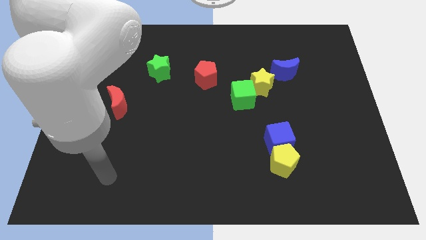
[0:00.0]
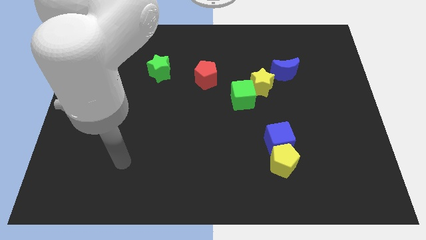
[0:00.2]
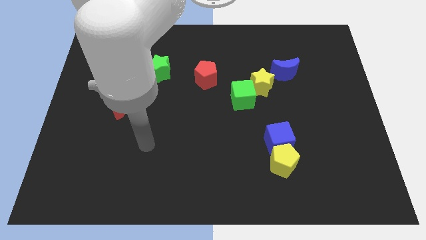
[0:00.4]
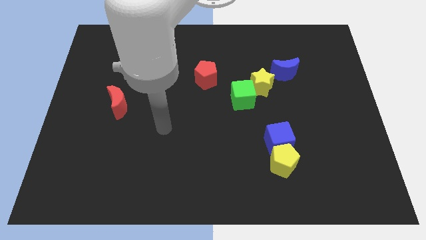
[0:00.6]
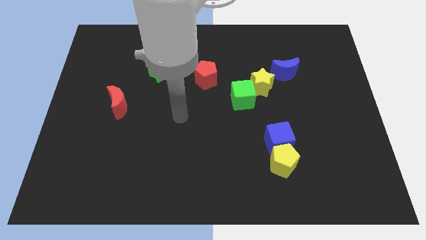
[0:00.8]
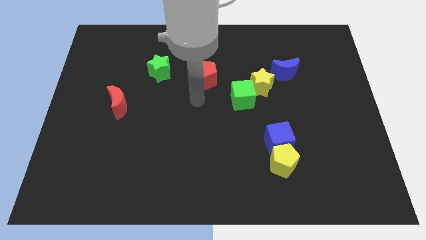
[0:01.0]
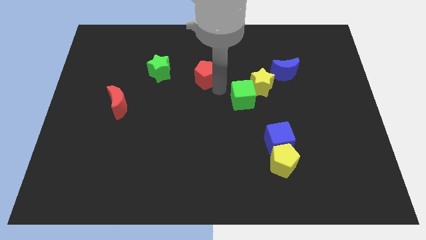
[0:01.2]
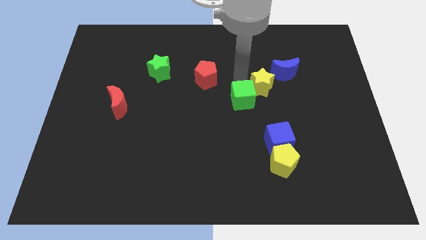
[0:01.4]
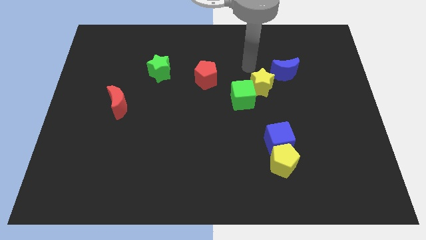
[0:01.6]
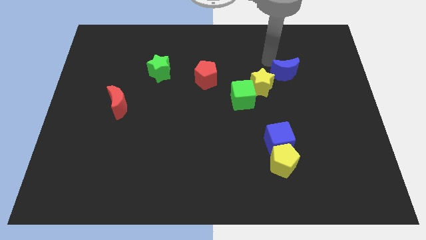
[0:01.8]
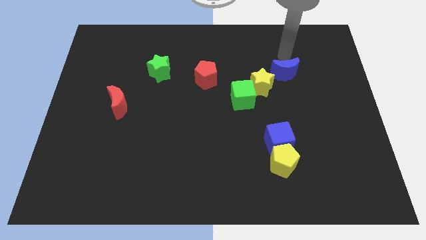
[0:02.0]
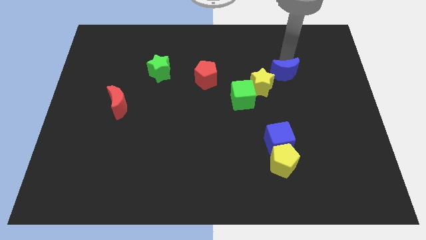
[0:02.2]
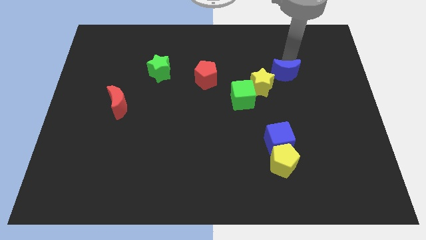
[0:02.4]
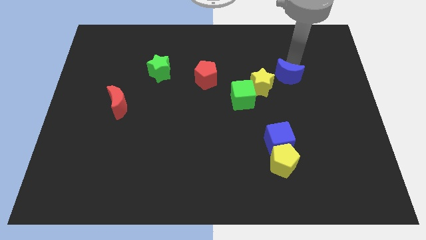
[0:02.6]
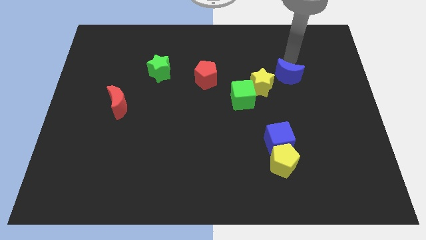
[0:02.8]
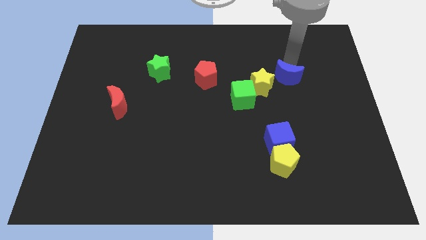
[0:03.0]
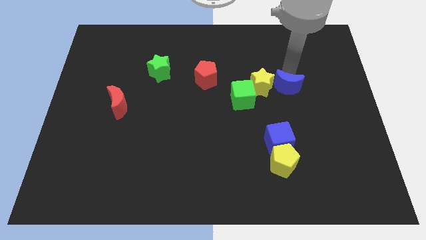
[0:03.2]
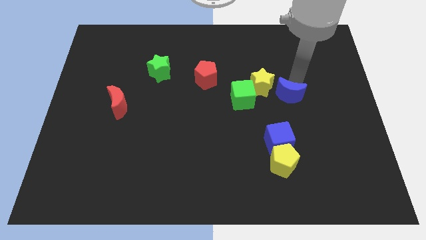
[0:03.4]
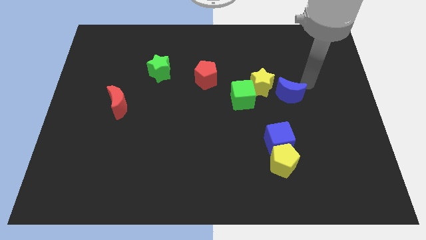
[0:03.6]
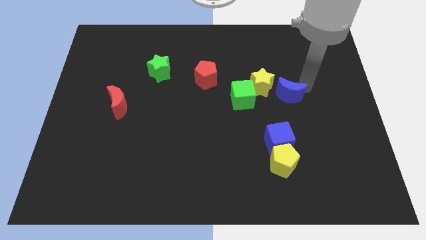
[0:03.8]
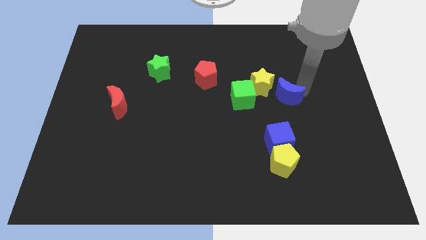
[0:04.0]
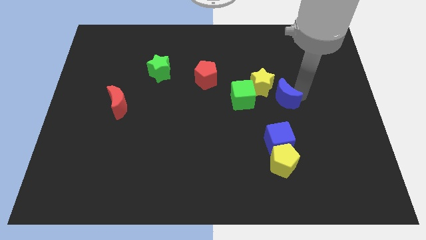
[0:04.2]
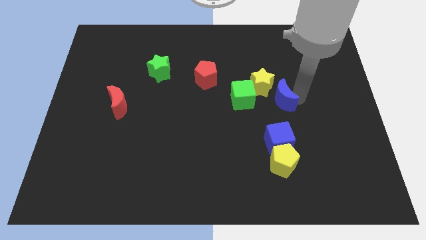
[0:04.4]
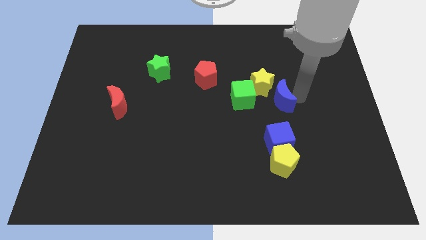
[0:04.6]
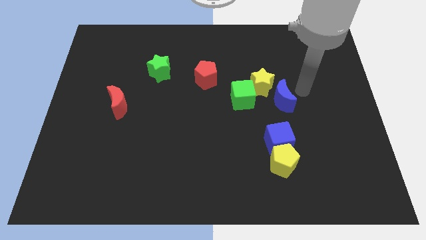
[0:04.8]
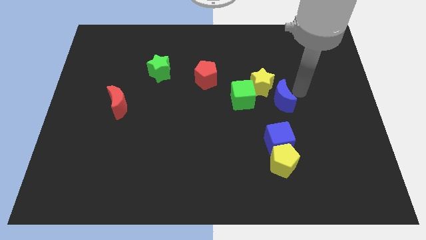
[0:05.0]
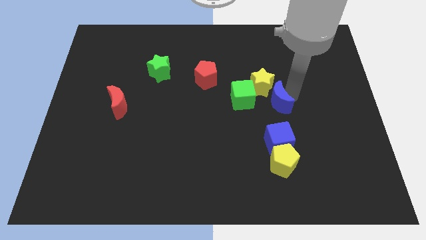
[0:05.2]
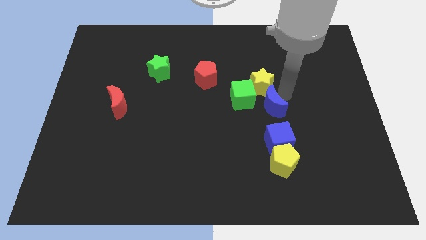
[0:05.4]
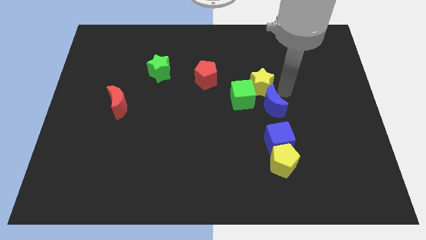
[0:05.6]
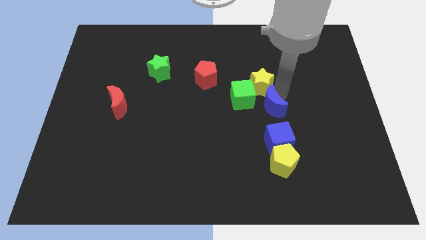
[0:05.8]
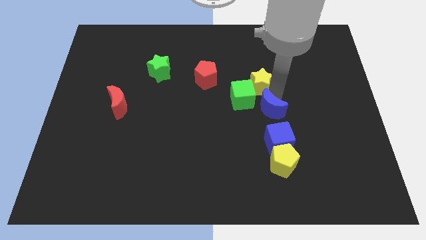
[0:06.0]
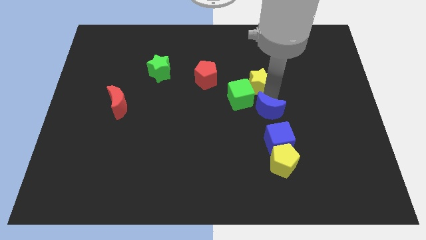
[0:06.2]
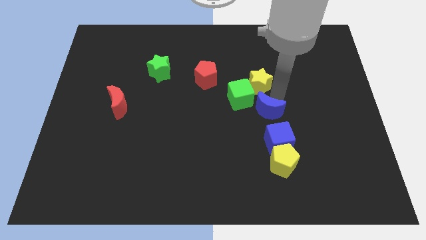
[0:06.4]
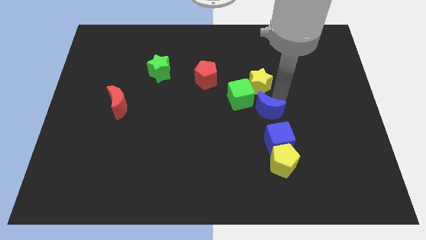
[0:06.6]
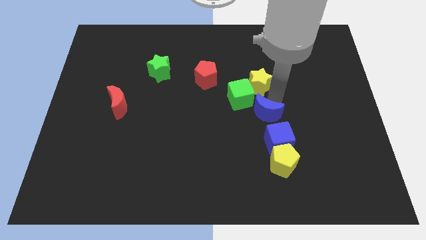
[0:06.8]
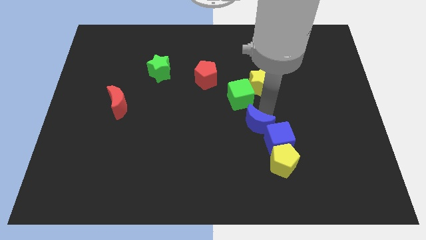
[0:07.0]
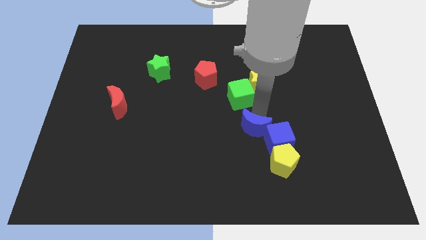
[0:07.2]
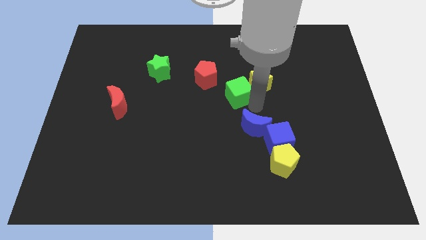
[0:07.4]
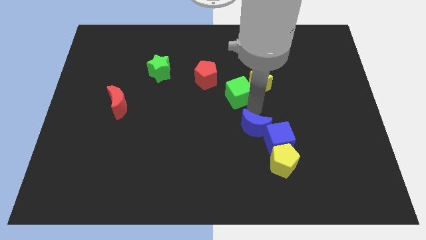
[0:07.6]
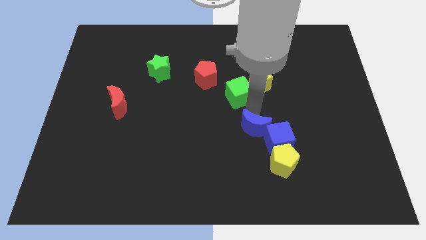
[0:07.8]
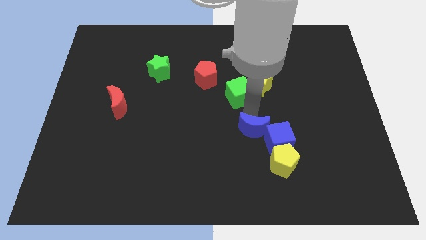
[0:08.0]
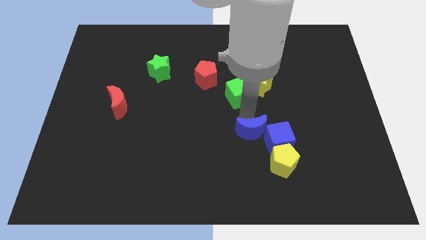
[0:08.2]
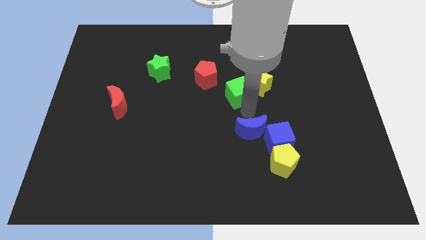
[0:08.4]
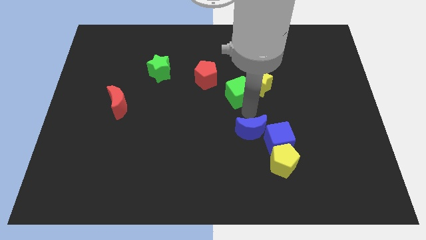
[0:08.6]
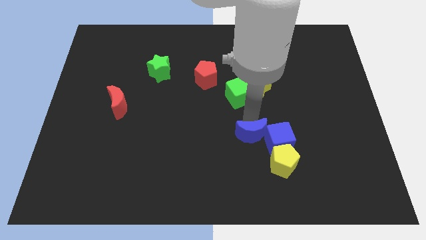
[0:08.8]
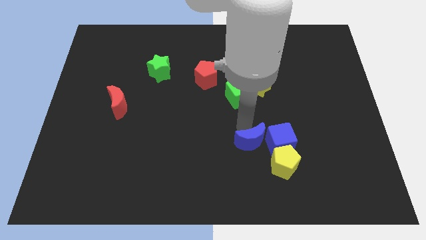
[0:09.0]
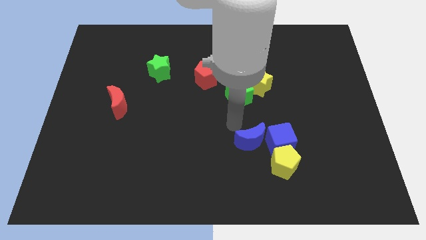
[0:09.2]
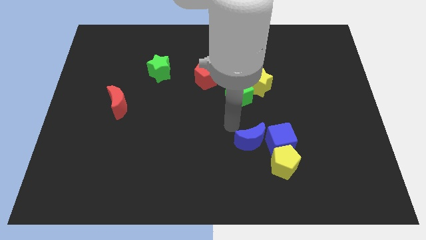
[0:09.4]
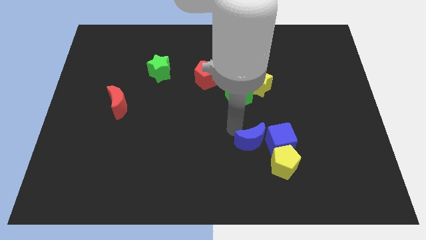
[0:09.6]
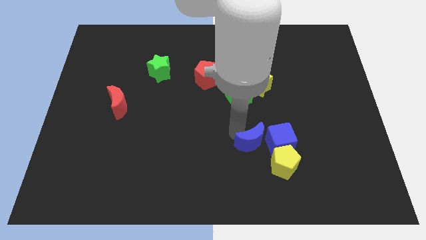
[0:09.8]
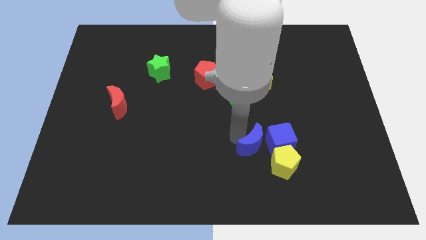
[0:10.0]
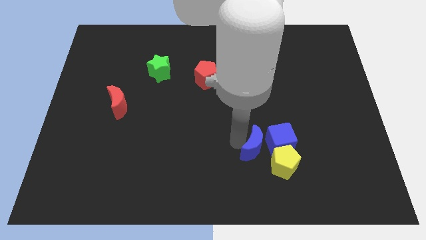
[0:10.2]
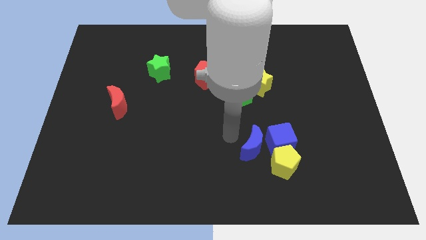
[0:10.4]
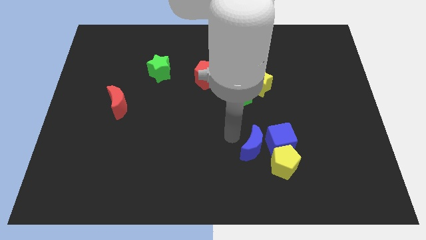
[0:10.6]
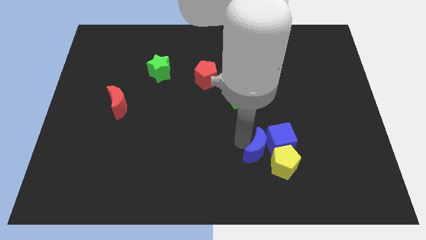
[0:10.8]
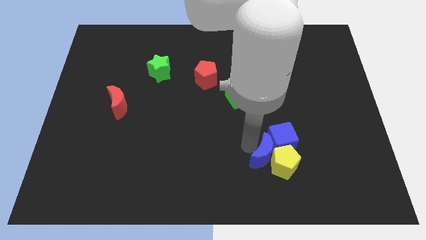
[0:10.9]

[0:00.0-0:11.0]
slide the blue moon to the yellow pentagon

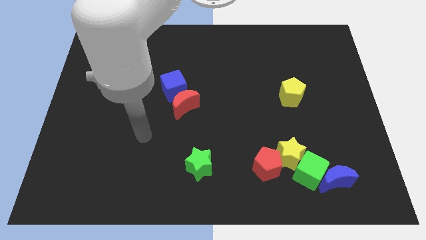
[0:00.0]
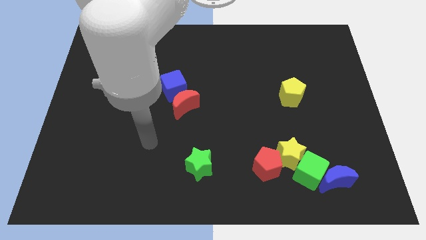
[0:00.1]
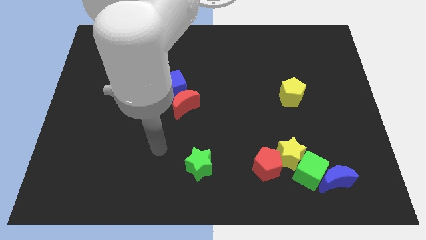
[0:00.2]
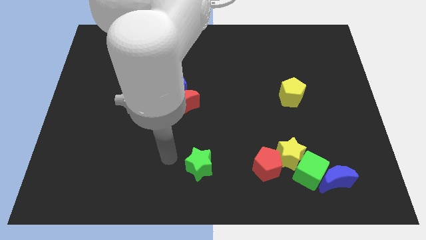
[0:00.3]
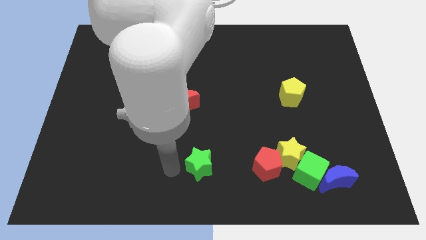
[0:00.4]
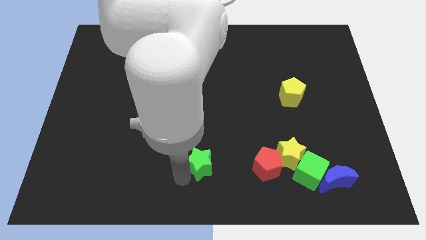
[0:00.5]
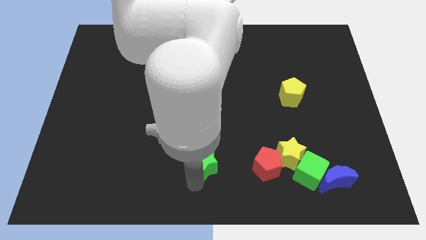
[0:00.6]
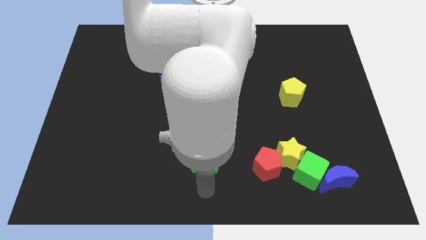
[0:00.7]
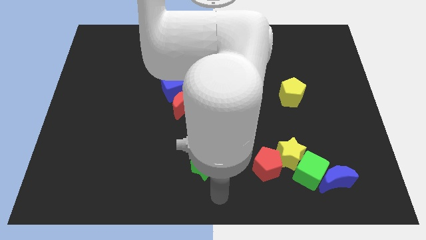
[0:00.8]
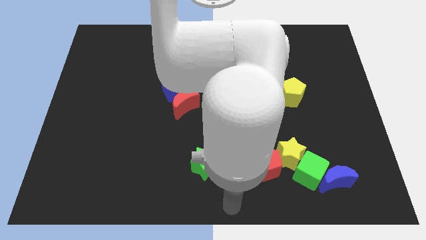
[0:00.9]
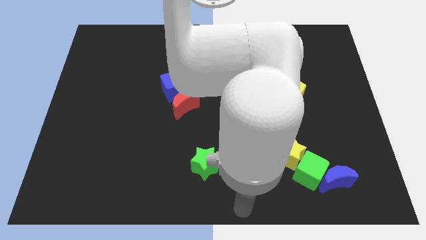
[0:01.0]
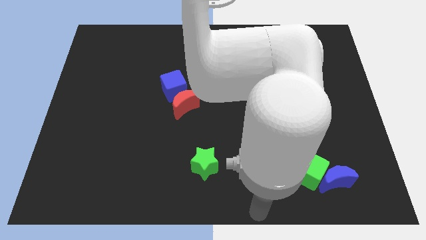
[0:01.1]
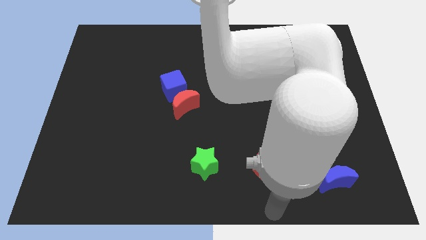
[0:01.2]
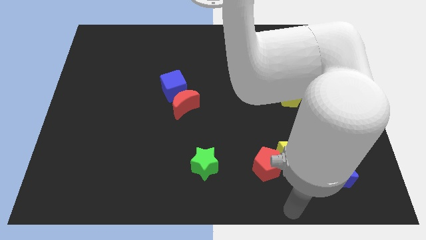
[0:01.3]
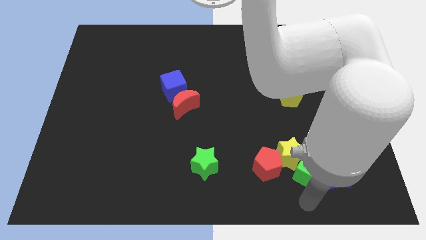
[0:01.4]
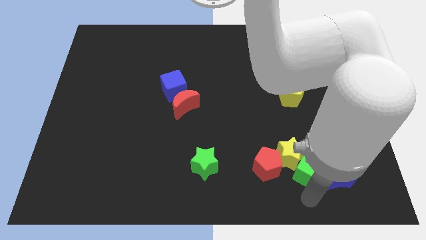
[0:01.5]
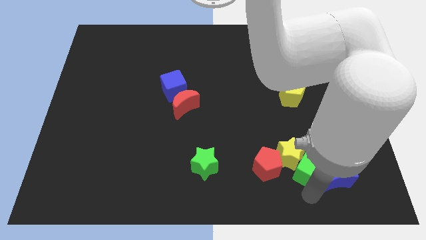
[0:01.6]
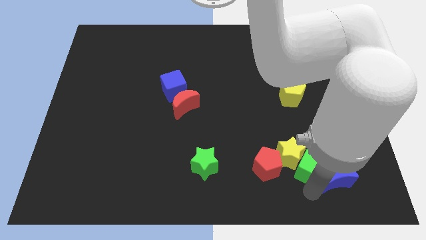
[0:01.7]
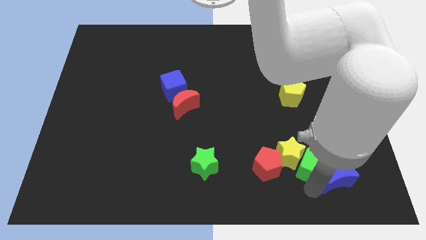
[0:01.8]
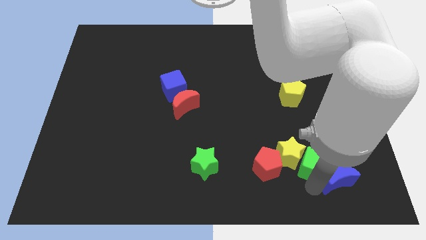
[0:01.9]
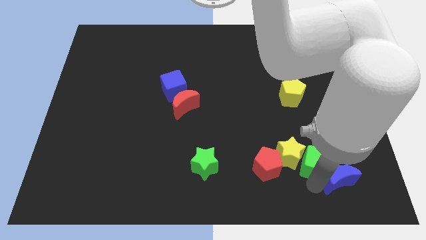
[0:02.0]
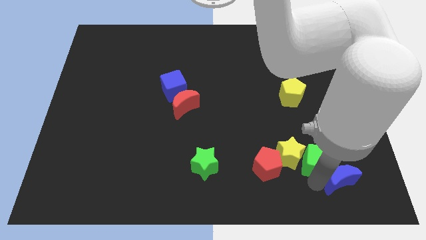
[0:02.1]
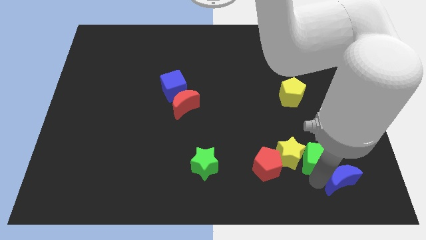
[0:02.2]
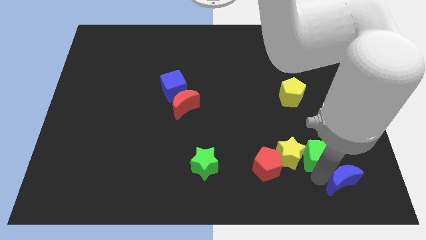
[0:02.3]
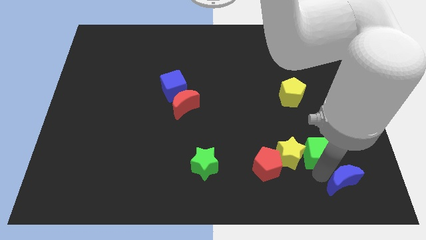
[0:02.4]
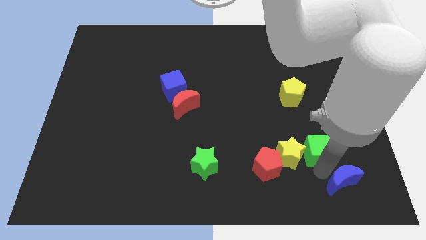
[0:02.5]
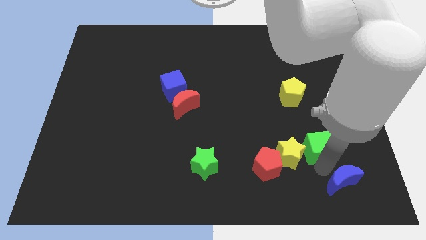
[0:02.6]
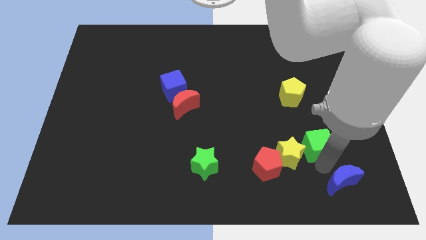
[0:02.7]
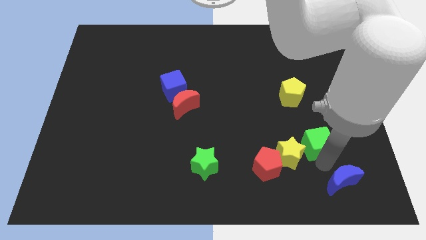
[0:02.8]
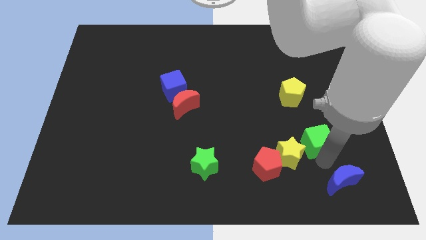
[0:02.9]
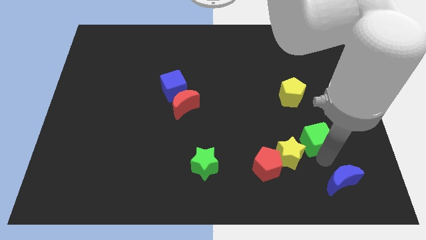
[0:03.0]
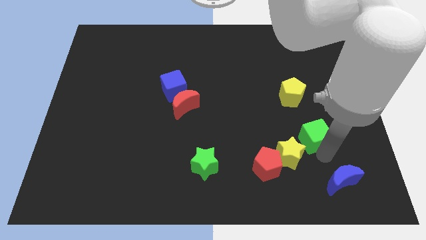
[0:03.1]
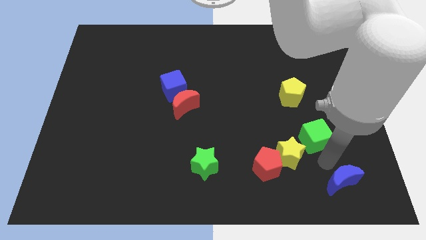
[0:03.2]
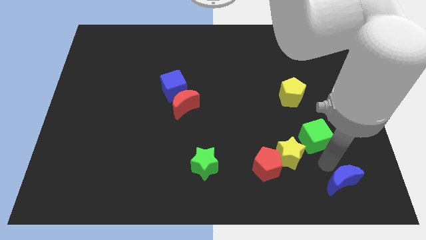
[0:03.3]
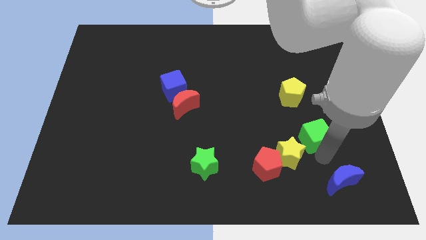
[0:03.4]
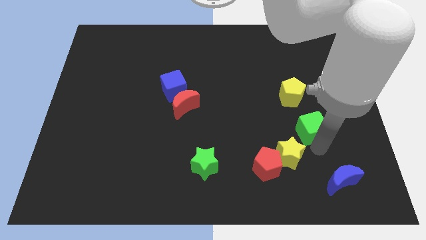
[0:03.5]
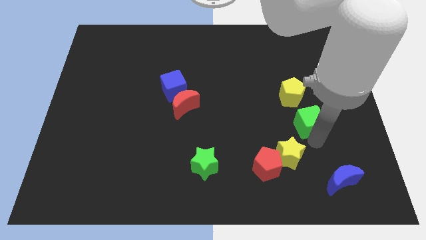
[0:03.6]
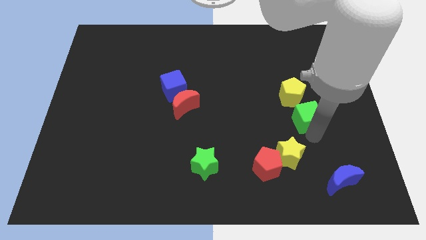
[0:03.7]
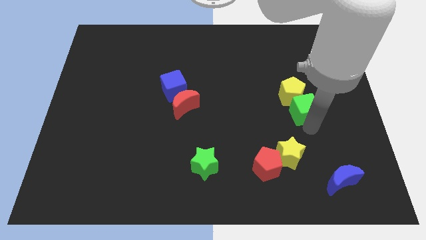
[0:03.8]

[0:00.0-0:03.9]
slide the green cube next to the yellow pentagon
